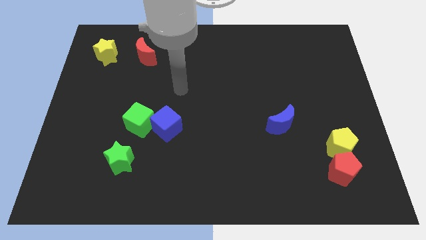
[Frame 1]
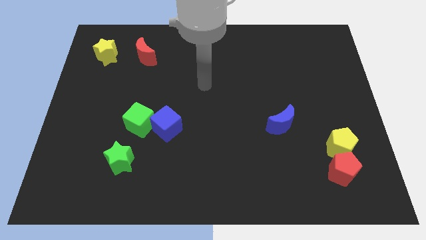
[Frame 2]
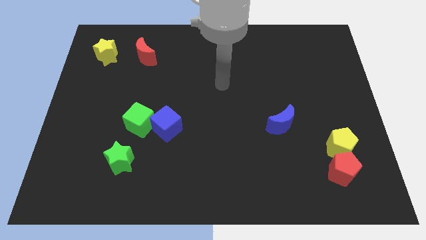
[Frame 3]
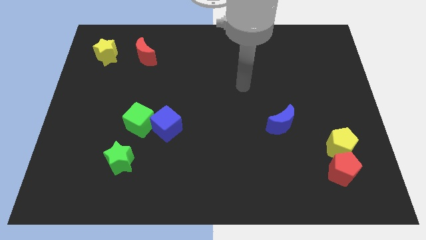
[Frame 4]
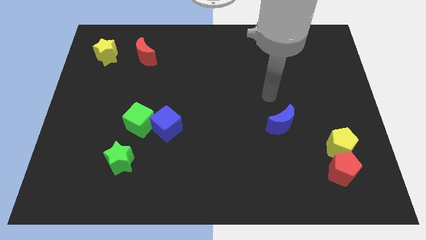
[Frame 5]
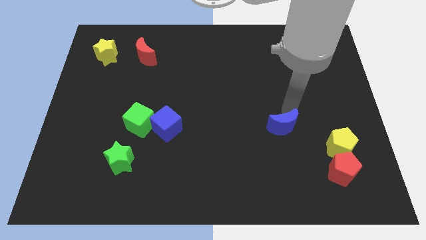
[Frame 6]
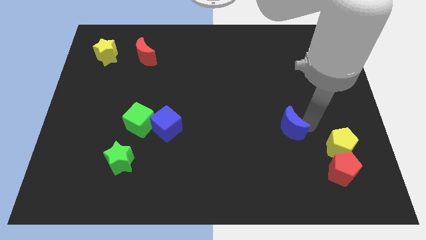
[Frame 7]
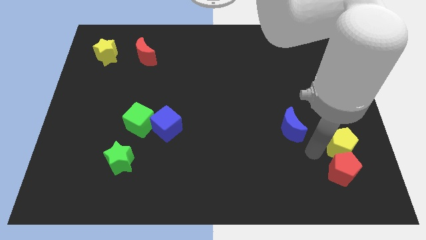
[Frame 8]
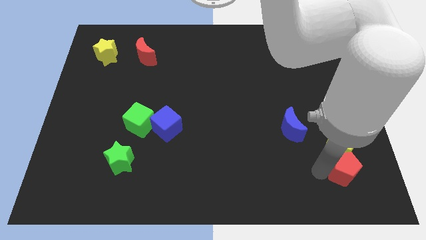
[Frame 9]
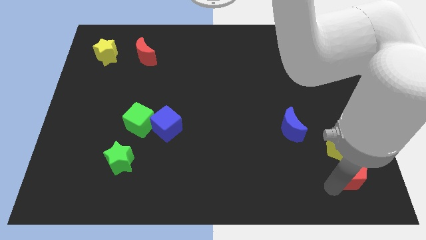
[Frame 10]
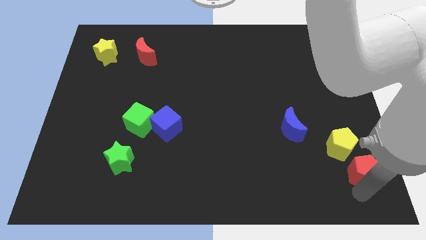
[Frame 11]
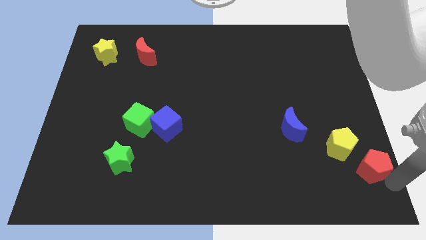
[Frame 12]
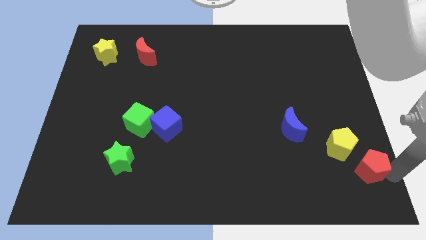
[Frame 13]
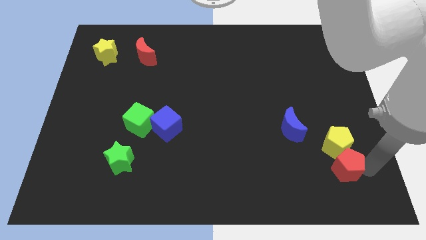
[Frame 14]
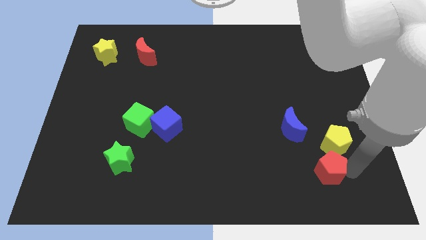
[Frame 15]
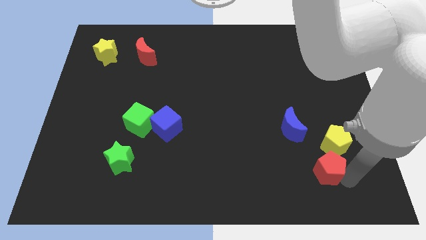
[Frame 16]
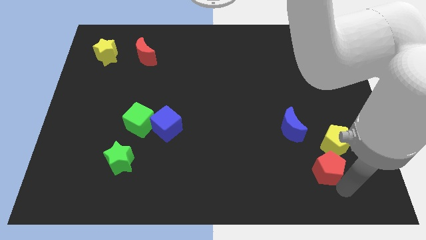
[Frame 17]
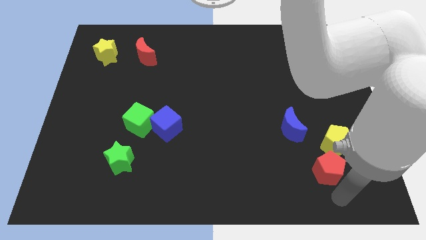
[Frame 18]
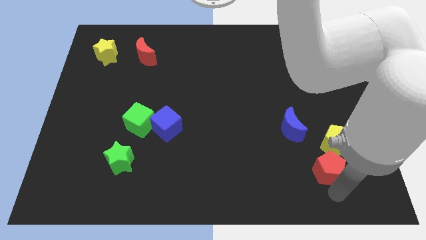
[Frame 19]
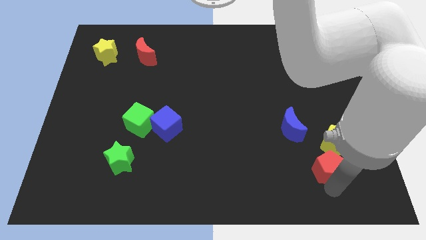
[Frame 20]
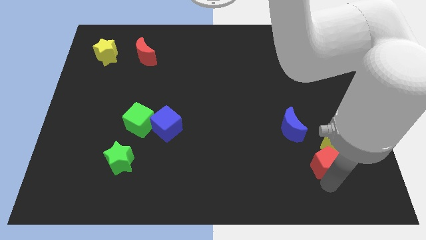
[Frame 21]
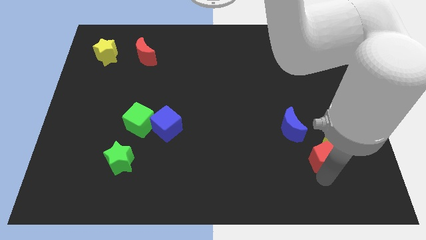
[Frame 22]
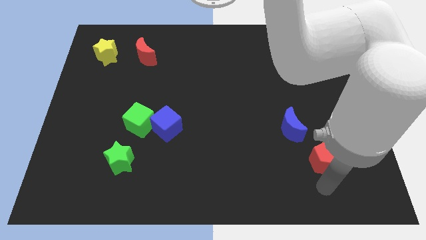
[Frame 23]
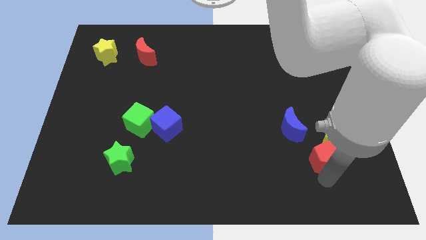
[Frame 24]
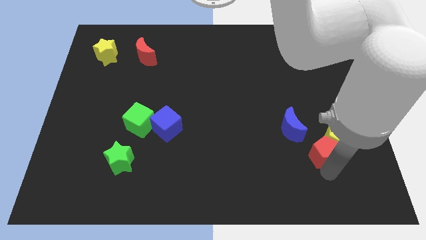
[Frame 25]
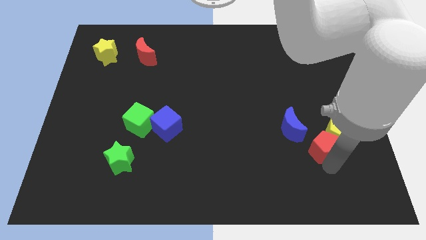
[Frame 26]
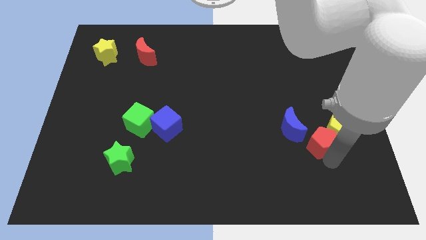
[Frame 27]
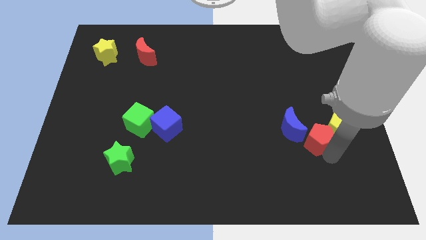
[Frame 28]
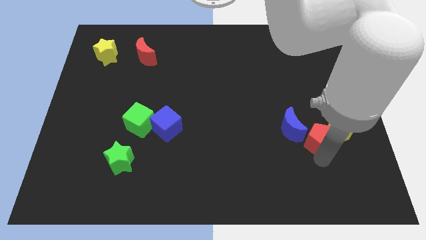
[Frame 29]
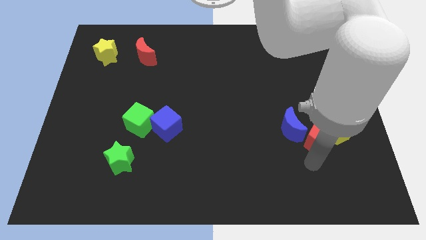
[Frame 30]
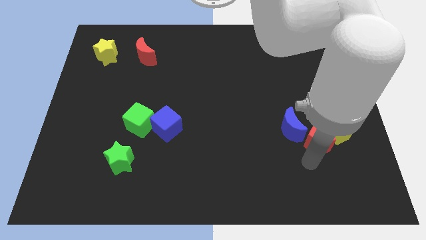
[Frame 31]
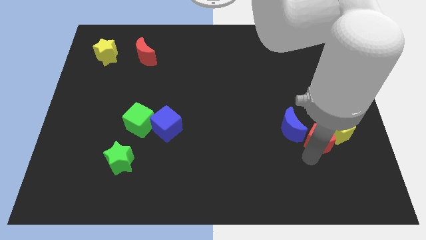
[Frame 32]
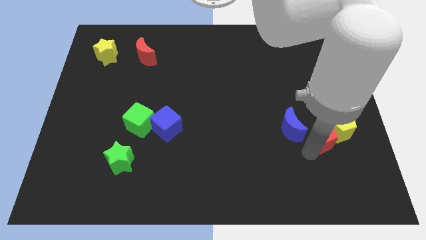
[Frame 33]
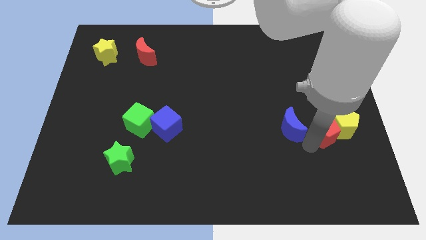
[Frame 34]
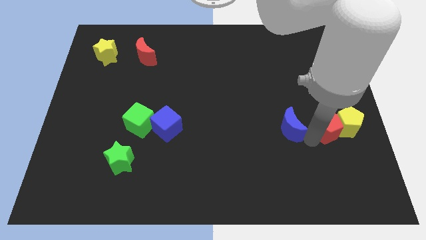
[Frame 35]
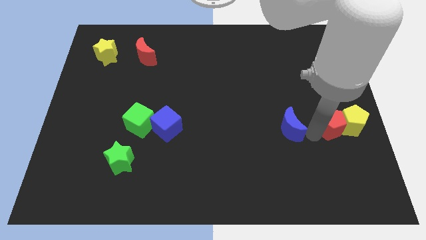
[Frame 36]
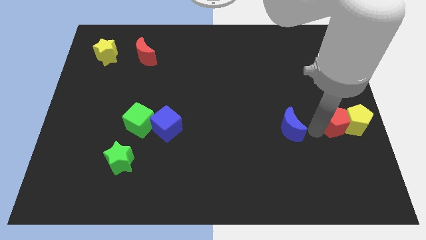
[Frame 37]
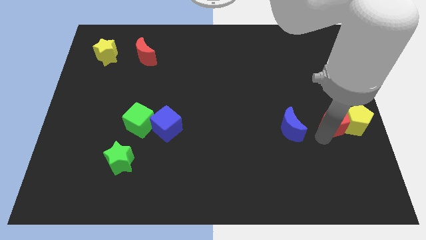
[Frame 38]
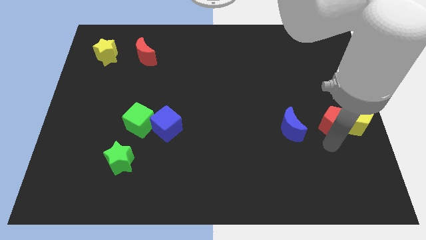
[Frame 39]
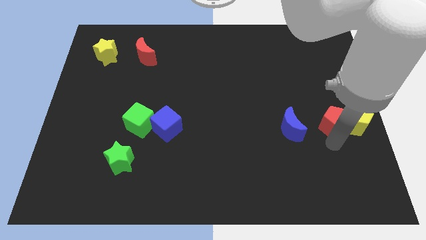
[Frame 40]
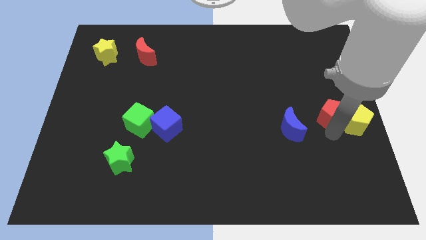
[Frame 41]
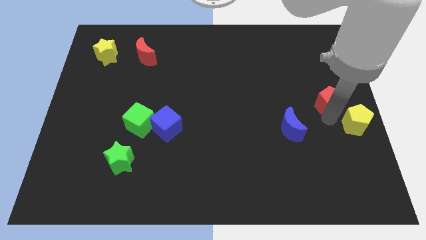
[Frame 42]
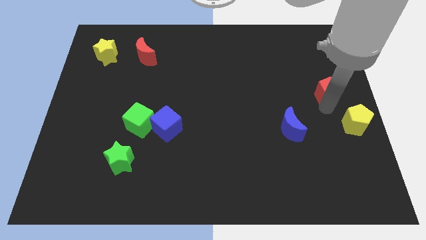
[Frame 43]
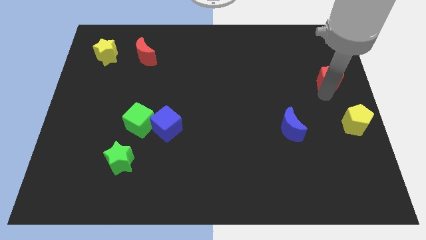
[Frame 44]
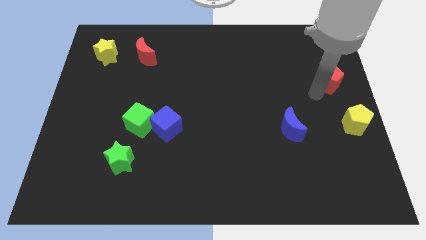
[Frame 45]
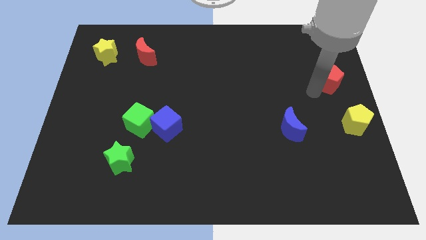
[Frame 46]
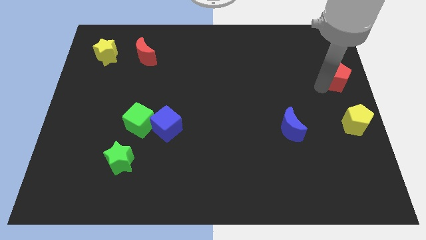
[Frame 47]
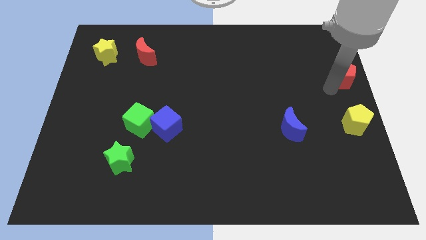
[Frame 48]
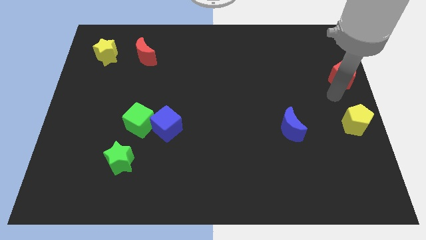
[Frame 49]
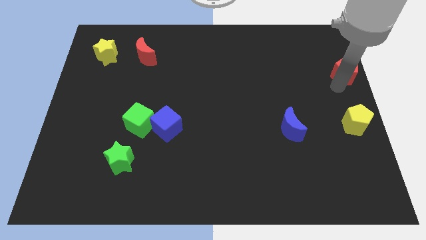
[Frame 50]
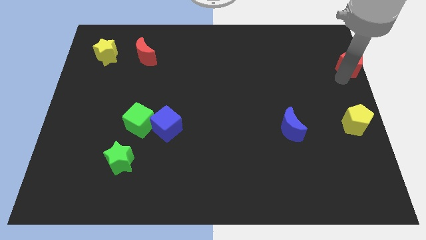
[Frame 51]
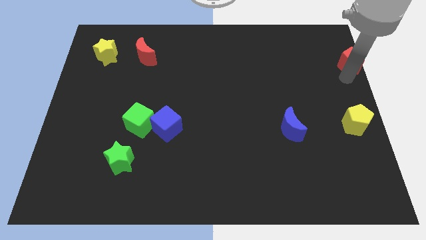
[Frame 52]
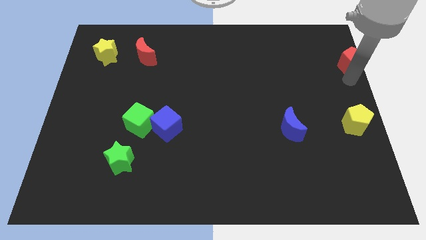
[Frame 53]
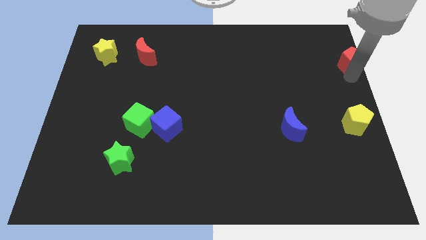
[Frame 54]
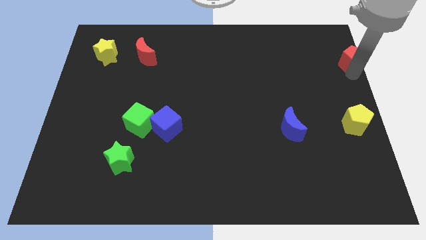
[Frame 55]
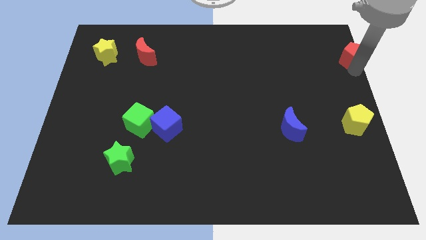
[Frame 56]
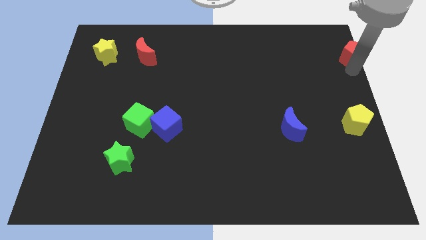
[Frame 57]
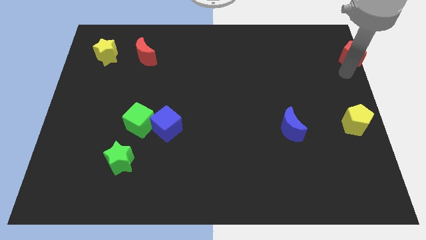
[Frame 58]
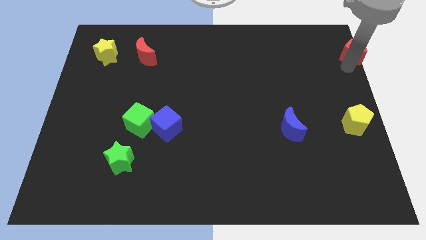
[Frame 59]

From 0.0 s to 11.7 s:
push the red pentagon to the top right
